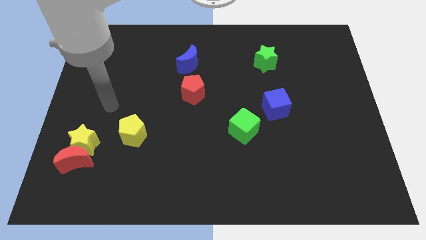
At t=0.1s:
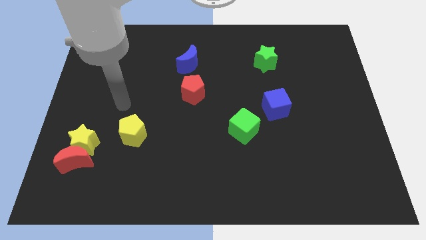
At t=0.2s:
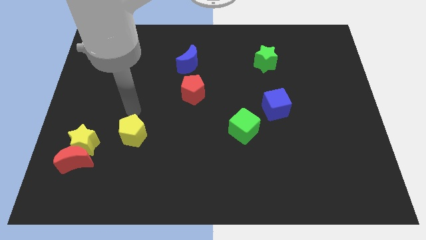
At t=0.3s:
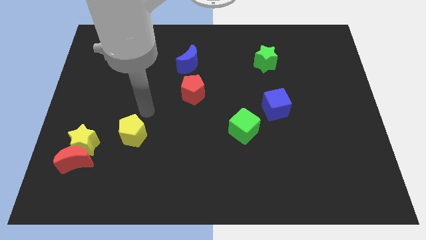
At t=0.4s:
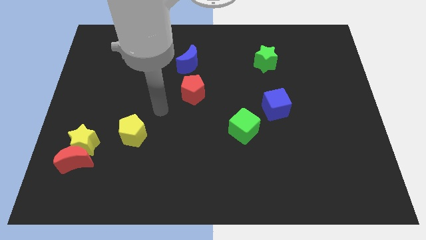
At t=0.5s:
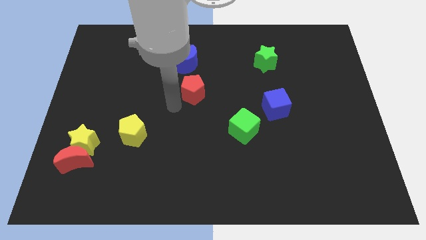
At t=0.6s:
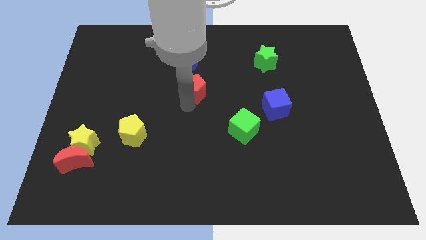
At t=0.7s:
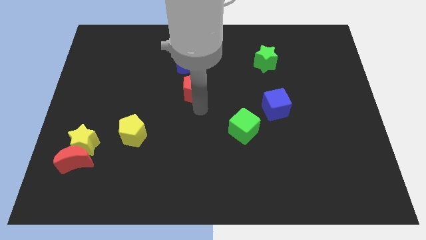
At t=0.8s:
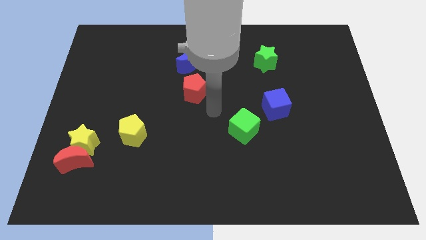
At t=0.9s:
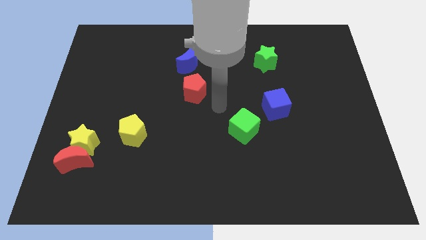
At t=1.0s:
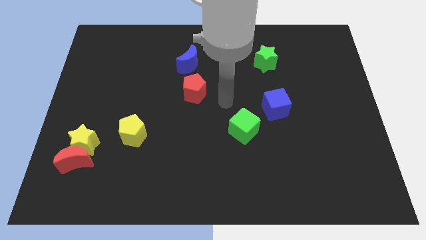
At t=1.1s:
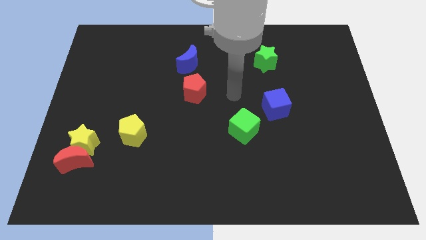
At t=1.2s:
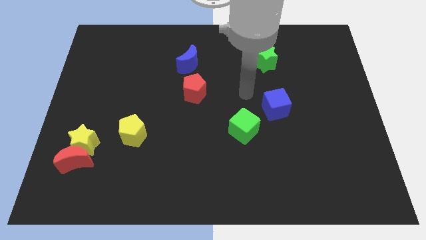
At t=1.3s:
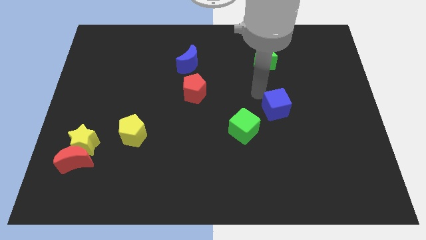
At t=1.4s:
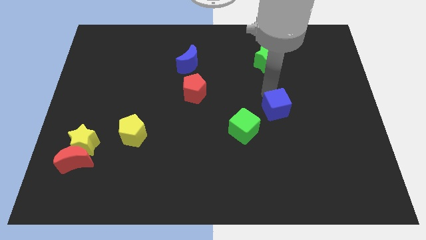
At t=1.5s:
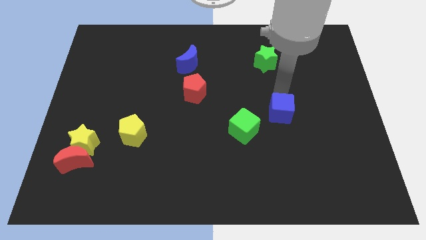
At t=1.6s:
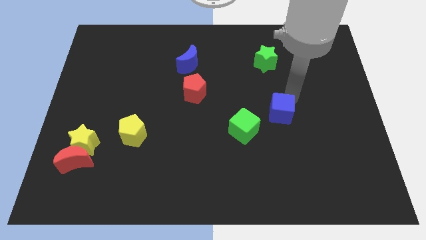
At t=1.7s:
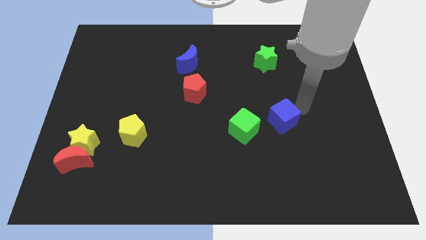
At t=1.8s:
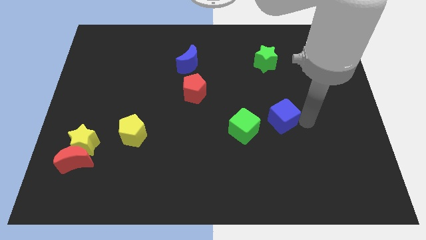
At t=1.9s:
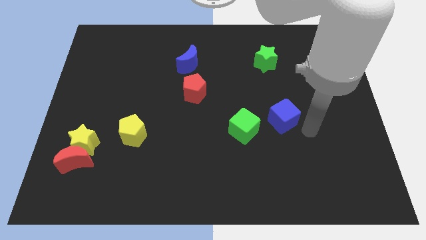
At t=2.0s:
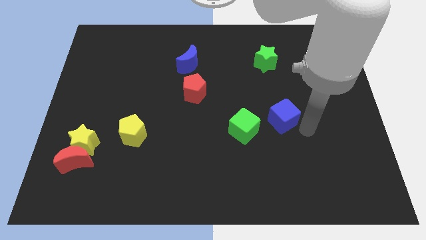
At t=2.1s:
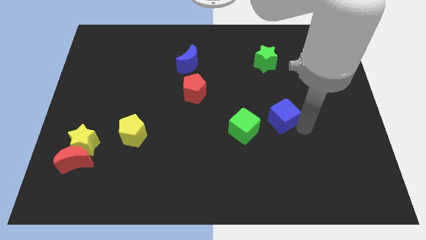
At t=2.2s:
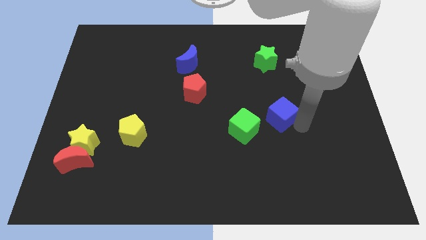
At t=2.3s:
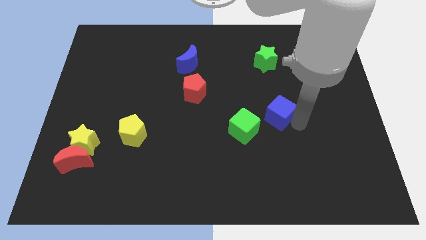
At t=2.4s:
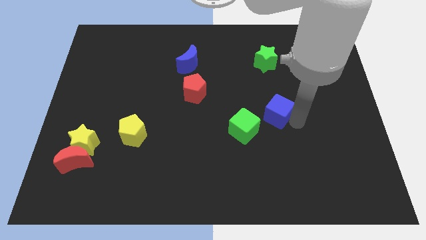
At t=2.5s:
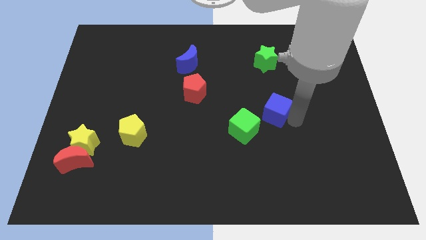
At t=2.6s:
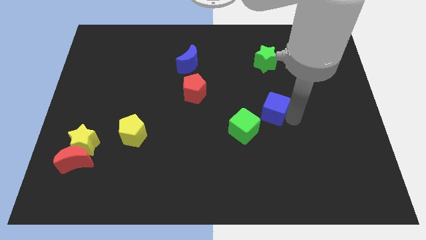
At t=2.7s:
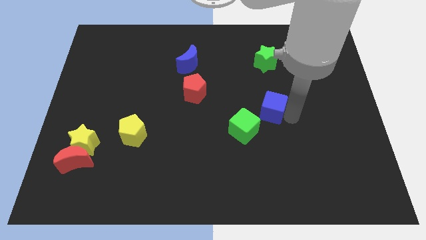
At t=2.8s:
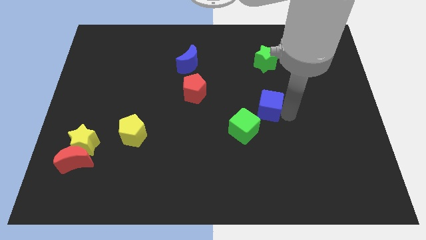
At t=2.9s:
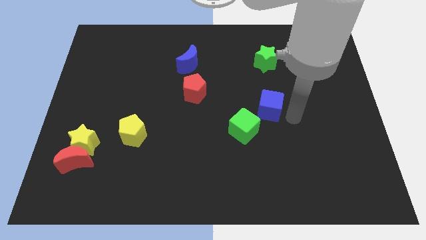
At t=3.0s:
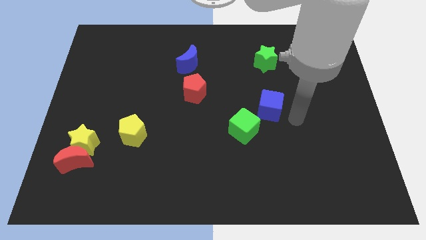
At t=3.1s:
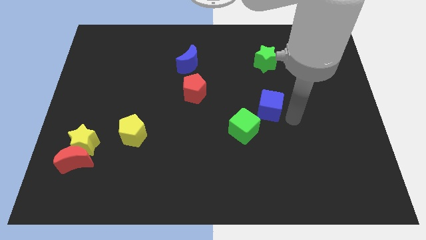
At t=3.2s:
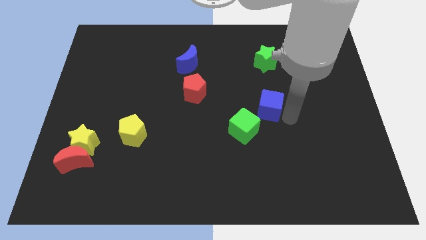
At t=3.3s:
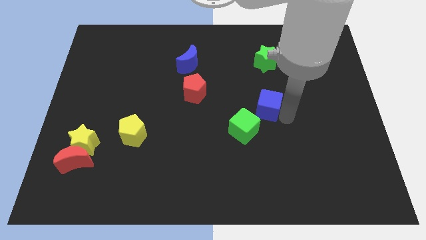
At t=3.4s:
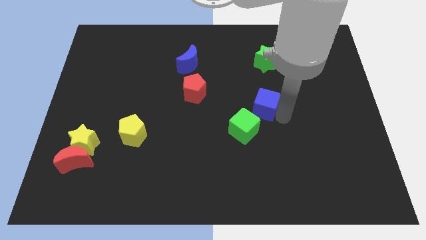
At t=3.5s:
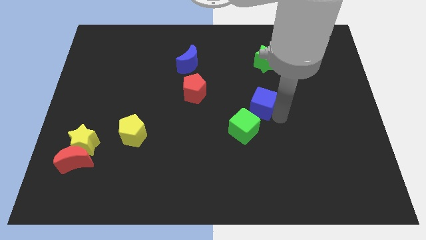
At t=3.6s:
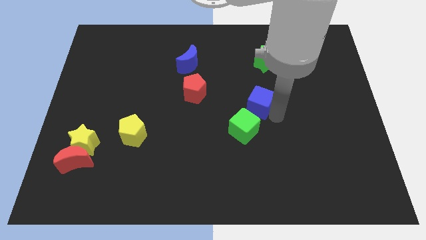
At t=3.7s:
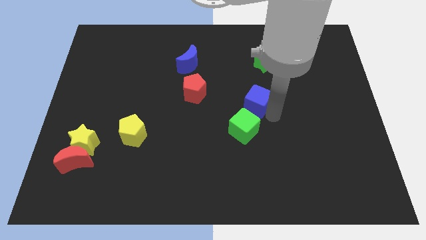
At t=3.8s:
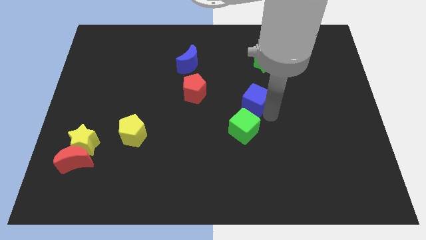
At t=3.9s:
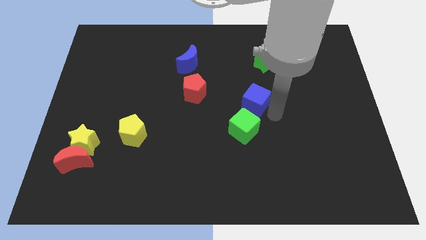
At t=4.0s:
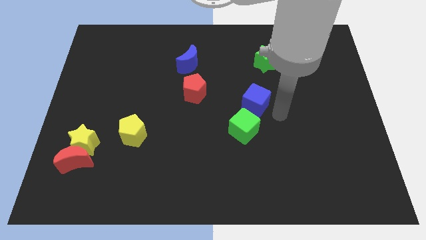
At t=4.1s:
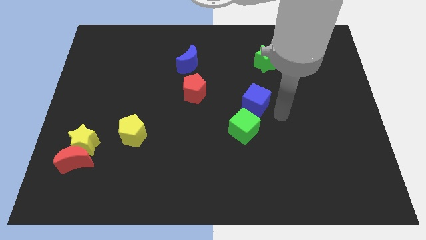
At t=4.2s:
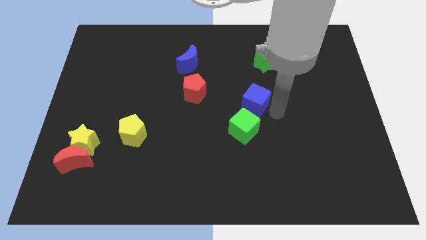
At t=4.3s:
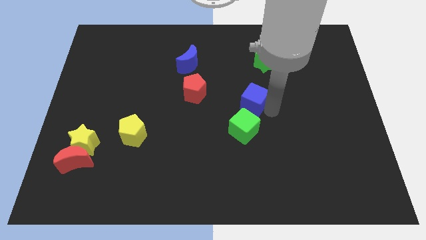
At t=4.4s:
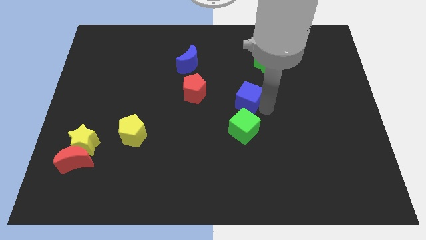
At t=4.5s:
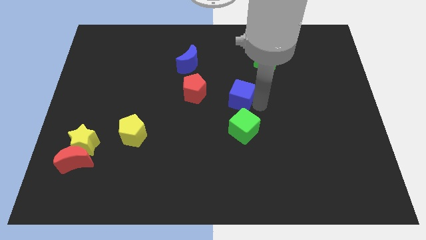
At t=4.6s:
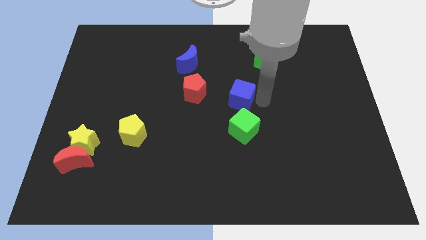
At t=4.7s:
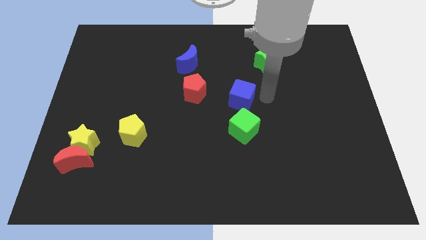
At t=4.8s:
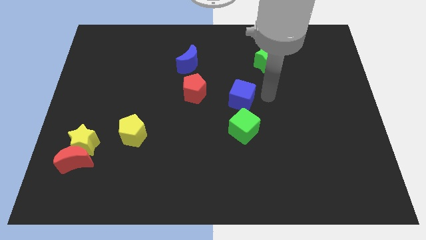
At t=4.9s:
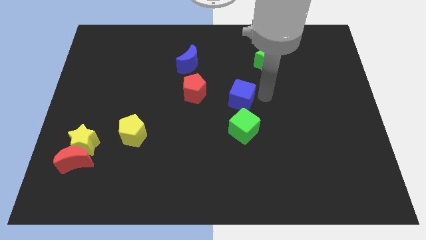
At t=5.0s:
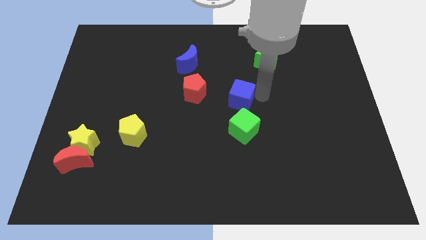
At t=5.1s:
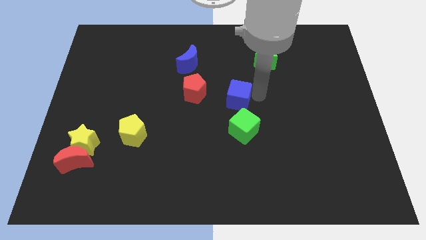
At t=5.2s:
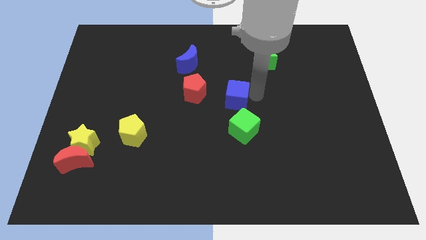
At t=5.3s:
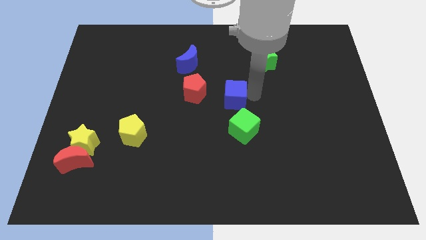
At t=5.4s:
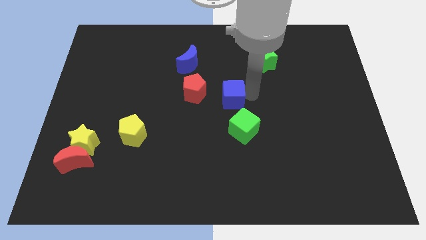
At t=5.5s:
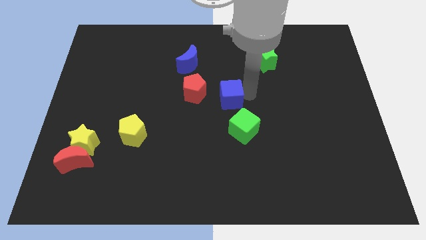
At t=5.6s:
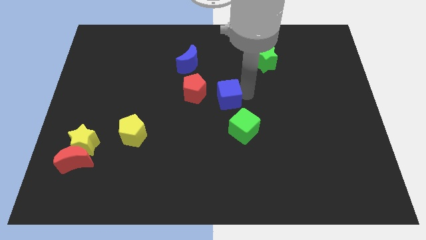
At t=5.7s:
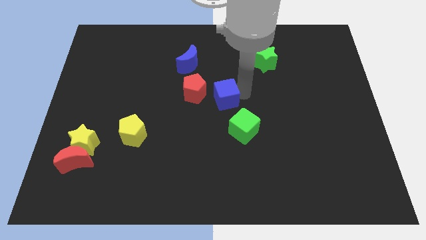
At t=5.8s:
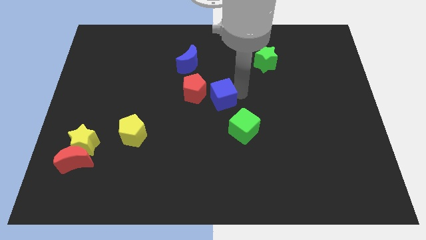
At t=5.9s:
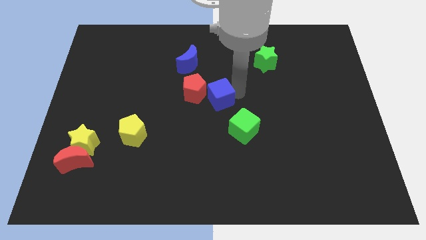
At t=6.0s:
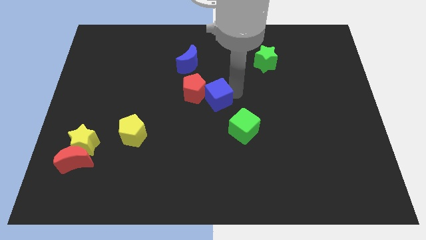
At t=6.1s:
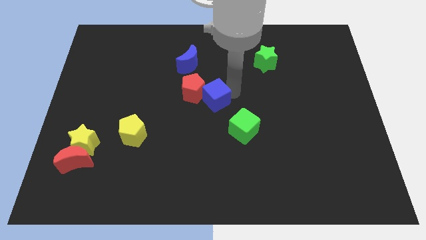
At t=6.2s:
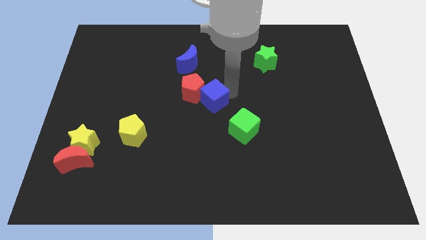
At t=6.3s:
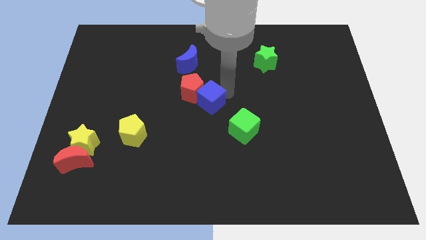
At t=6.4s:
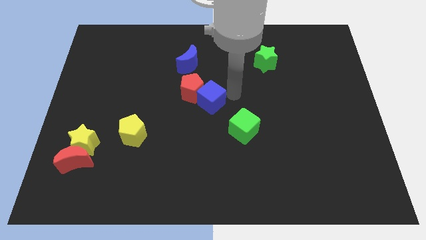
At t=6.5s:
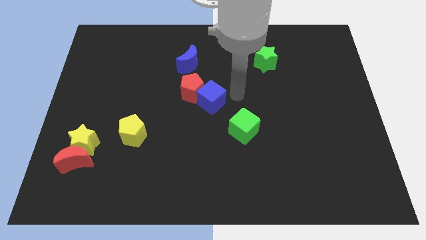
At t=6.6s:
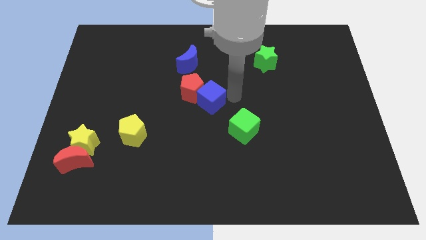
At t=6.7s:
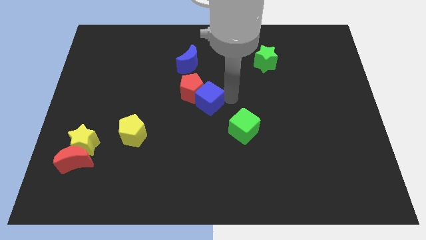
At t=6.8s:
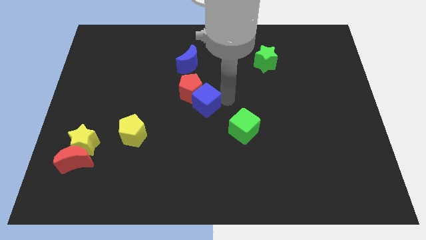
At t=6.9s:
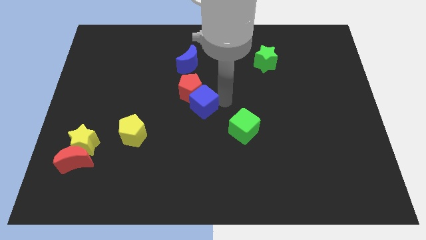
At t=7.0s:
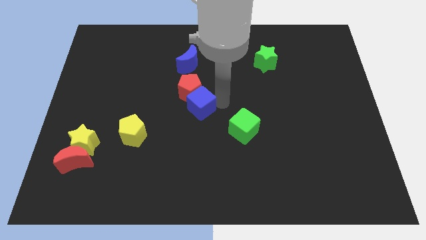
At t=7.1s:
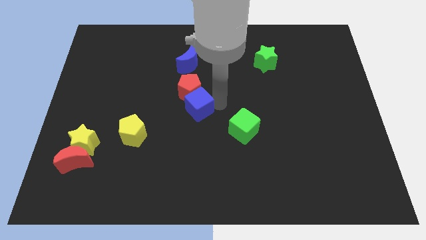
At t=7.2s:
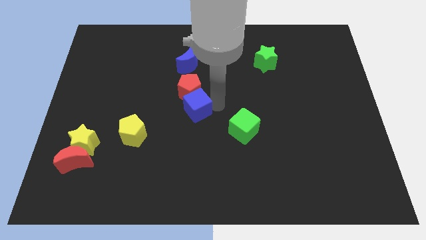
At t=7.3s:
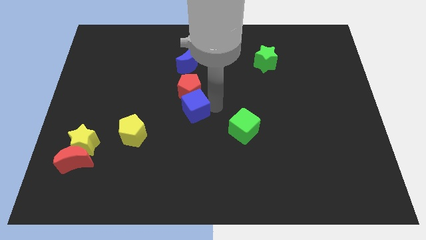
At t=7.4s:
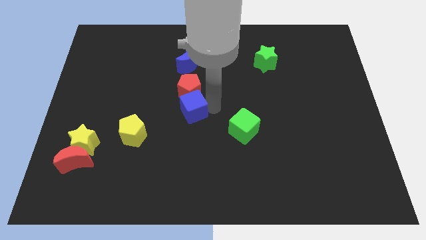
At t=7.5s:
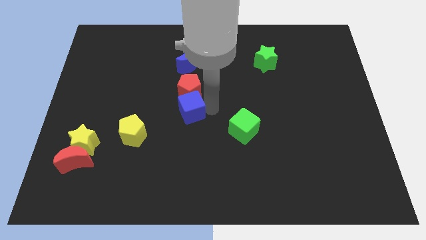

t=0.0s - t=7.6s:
move the blue cube to the left

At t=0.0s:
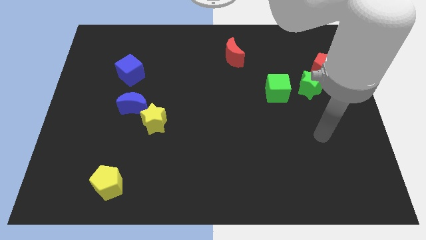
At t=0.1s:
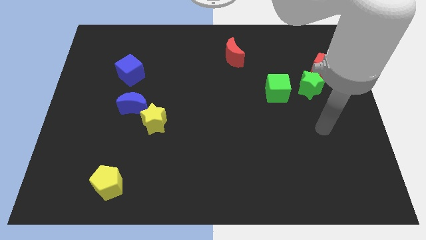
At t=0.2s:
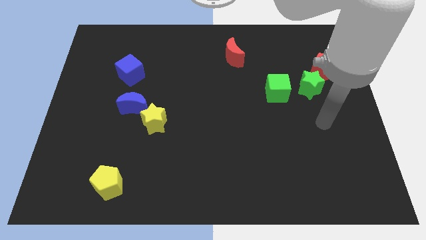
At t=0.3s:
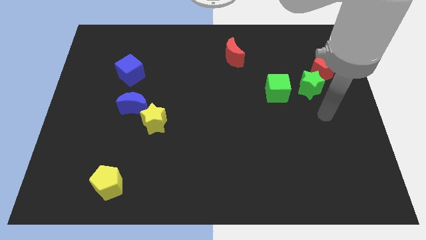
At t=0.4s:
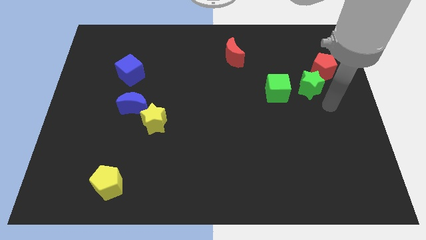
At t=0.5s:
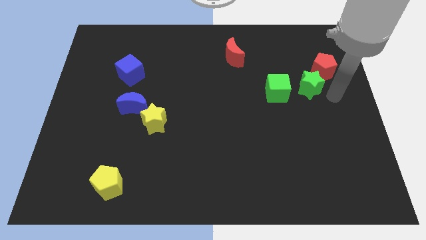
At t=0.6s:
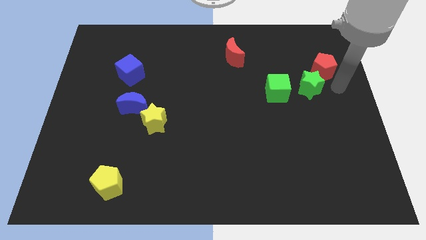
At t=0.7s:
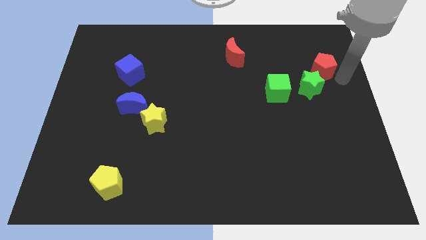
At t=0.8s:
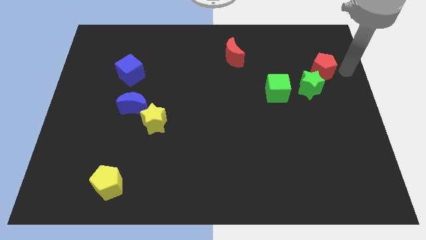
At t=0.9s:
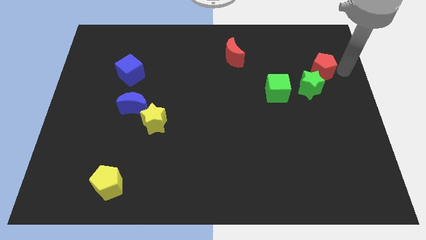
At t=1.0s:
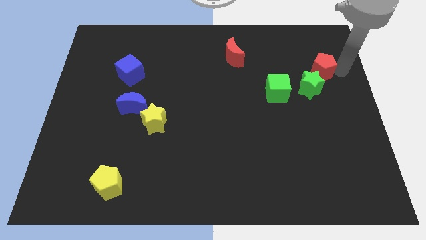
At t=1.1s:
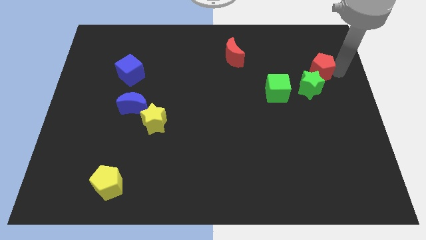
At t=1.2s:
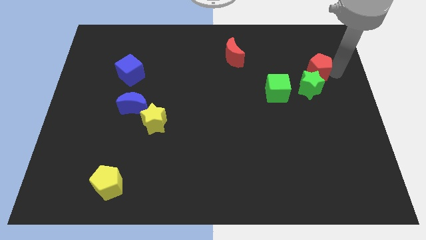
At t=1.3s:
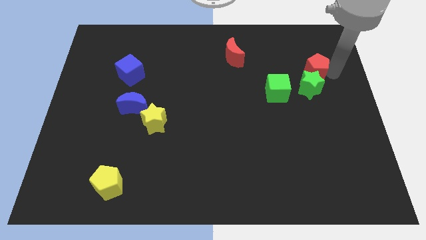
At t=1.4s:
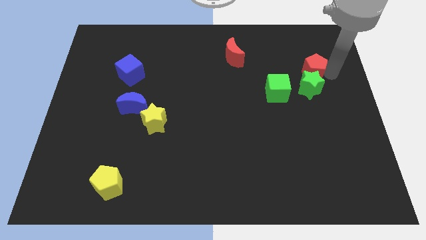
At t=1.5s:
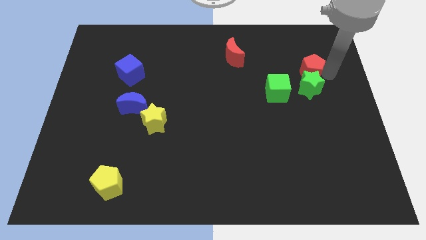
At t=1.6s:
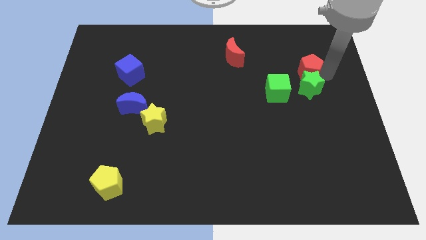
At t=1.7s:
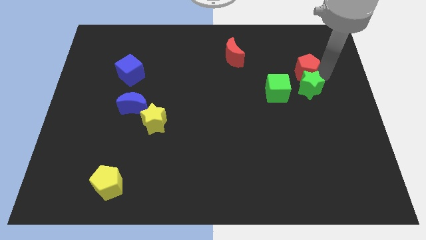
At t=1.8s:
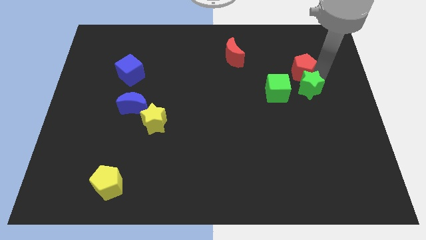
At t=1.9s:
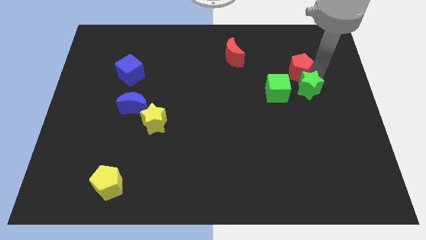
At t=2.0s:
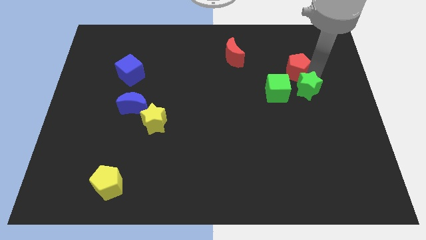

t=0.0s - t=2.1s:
move the red pentagon to the left slightly
